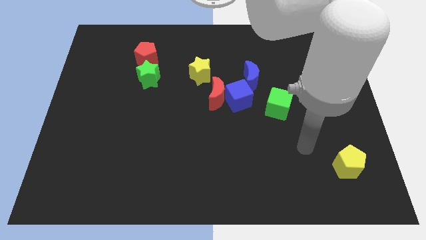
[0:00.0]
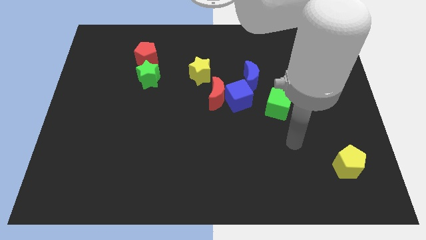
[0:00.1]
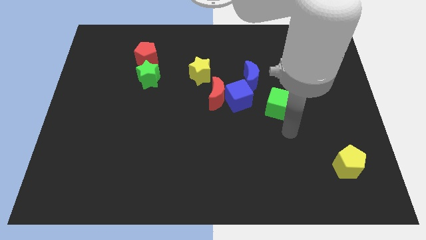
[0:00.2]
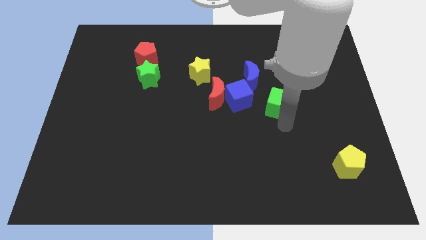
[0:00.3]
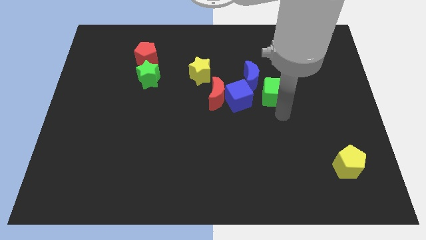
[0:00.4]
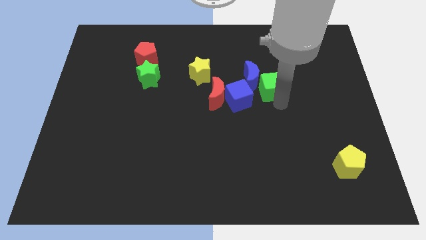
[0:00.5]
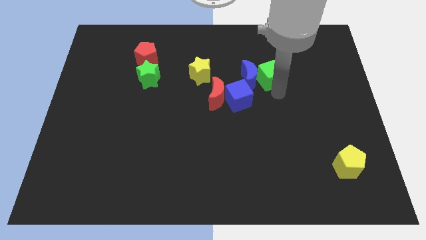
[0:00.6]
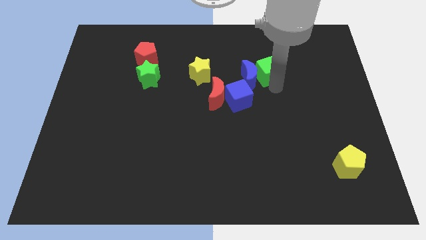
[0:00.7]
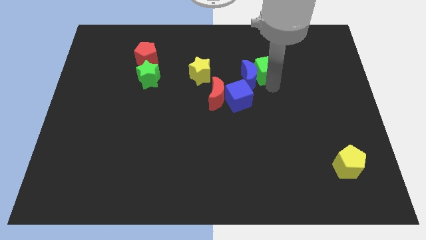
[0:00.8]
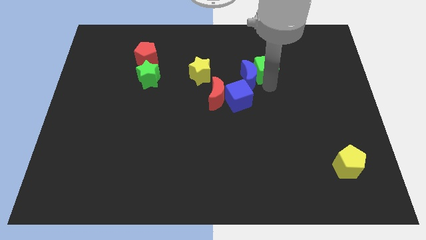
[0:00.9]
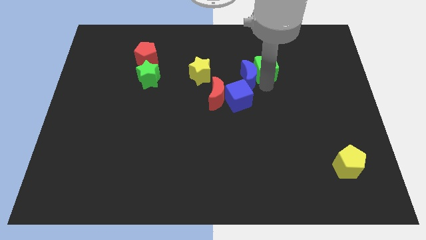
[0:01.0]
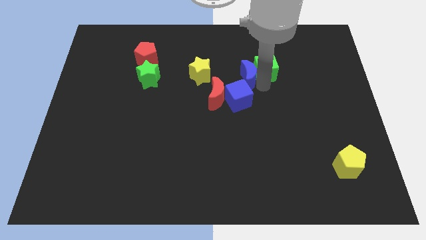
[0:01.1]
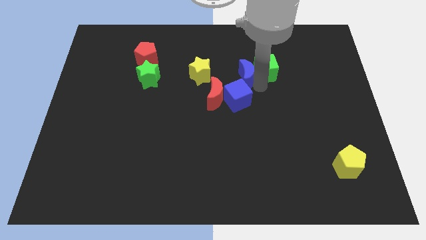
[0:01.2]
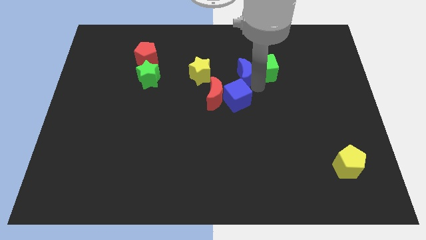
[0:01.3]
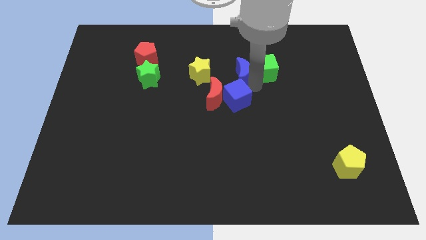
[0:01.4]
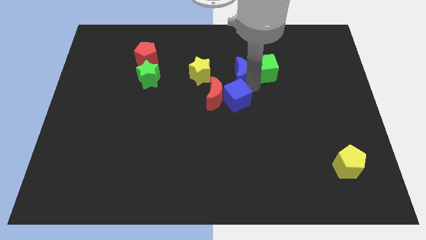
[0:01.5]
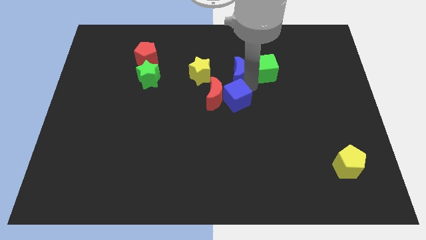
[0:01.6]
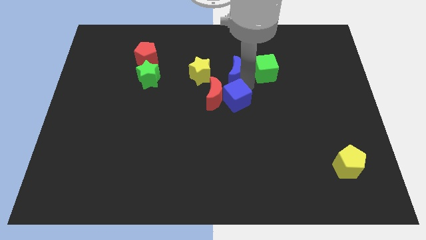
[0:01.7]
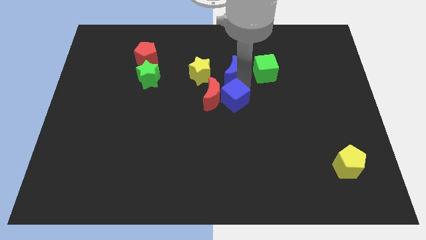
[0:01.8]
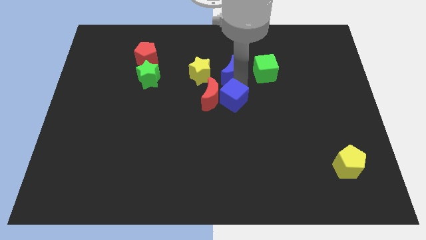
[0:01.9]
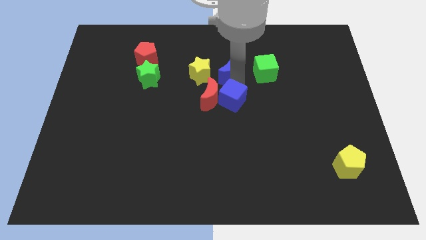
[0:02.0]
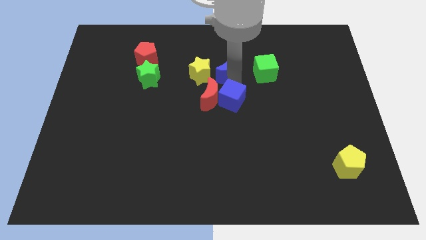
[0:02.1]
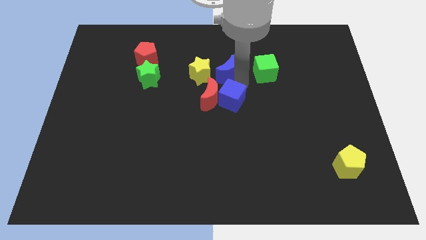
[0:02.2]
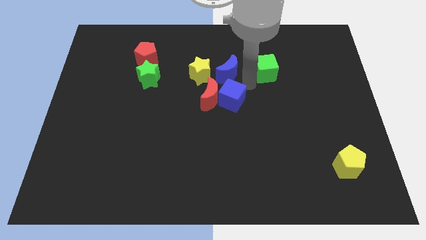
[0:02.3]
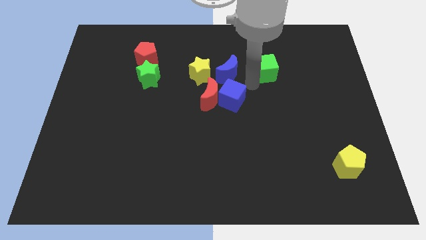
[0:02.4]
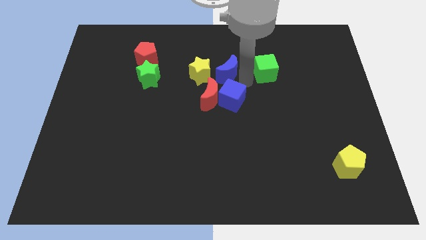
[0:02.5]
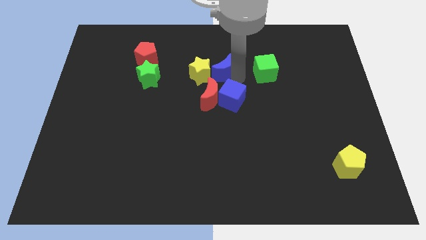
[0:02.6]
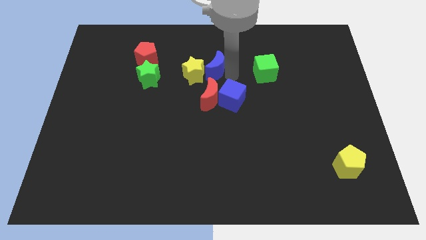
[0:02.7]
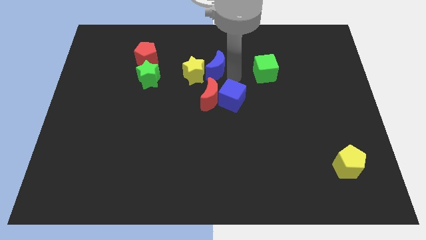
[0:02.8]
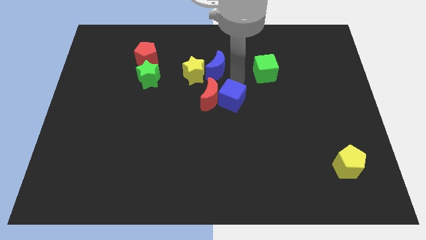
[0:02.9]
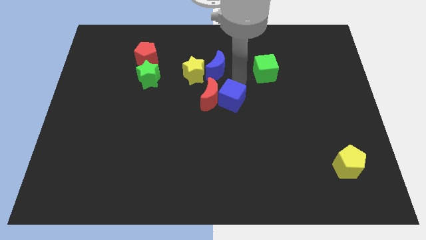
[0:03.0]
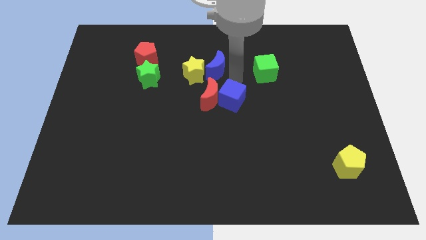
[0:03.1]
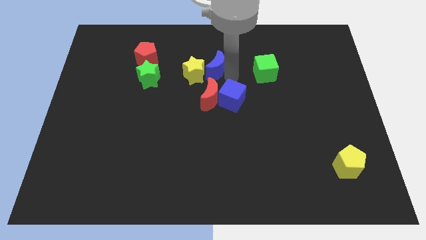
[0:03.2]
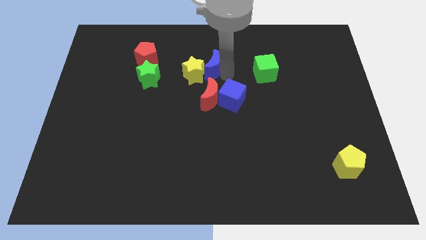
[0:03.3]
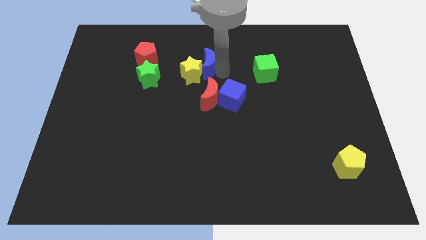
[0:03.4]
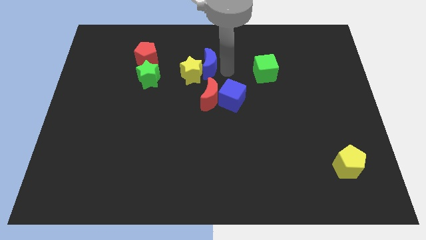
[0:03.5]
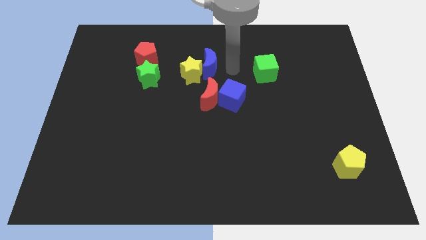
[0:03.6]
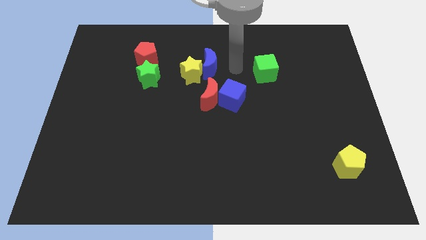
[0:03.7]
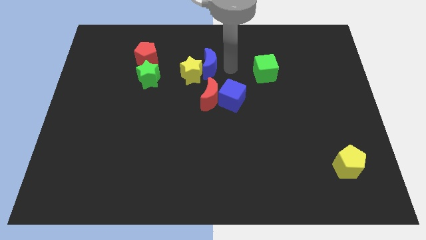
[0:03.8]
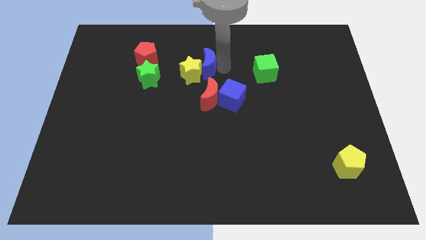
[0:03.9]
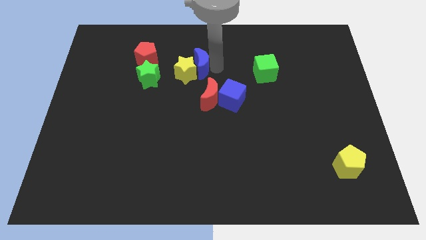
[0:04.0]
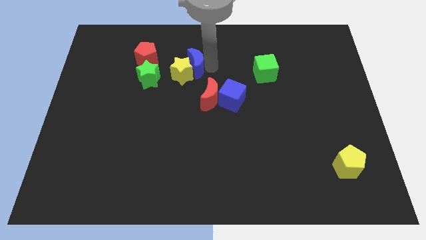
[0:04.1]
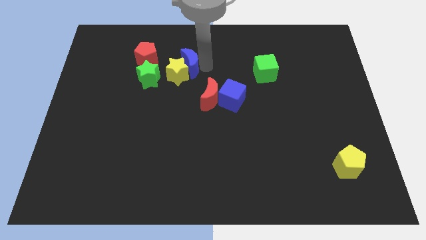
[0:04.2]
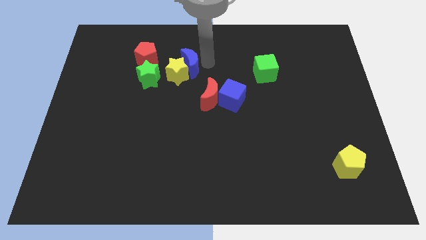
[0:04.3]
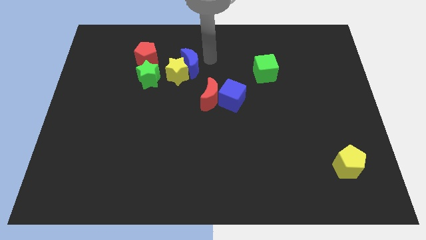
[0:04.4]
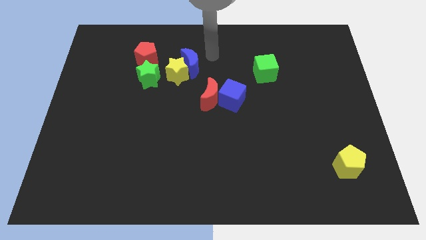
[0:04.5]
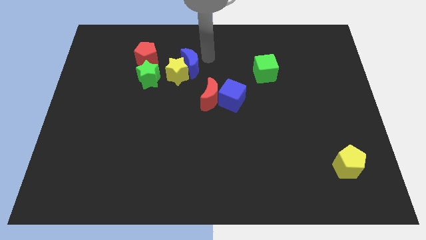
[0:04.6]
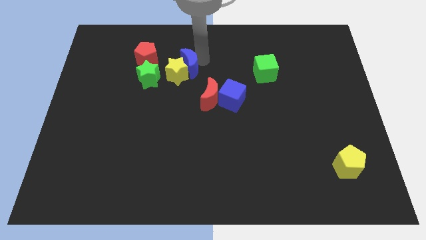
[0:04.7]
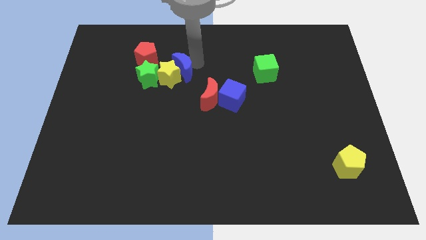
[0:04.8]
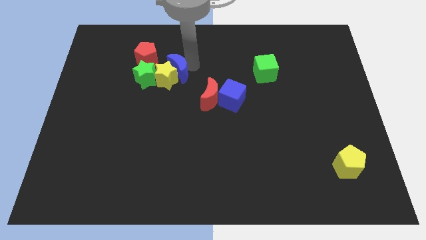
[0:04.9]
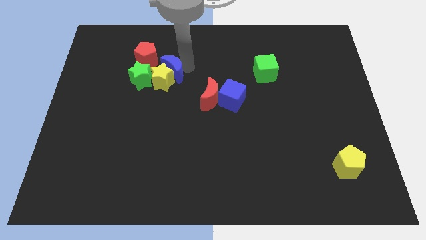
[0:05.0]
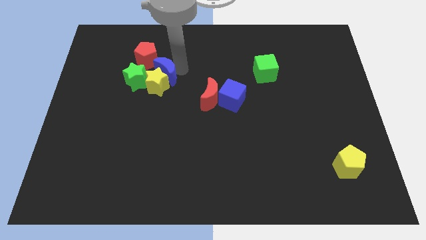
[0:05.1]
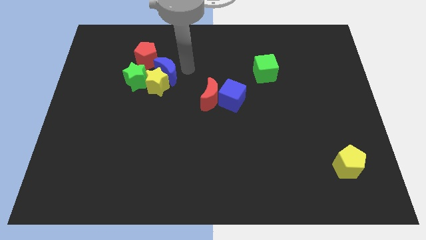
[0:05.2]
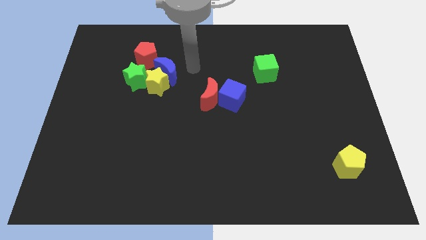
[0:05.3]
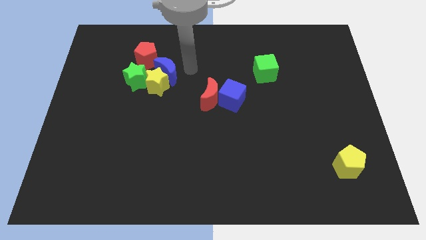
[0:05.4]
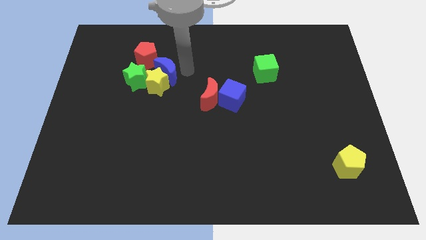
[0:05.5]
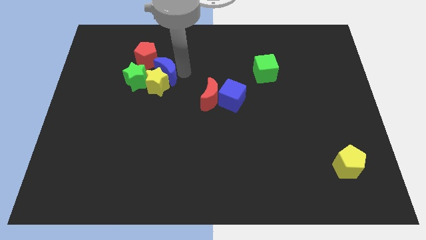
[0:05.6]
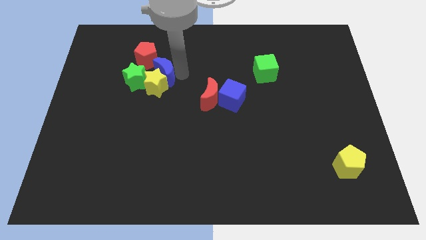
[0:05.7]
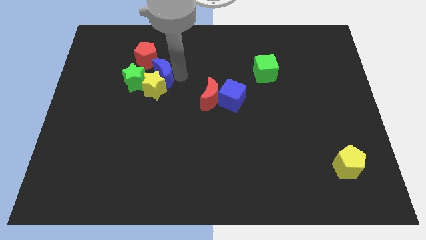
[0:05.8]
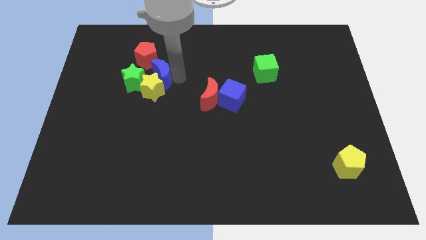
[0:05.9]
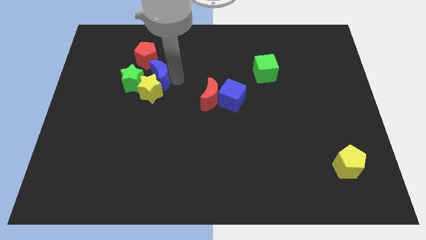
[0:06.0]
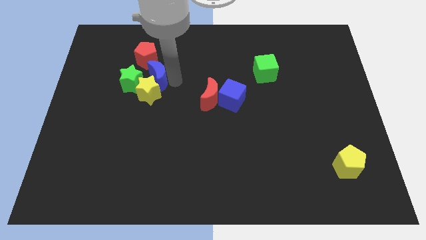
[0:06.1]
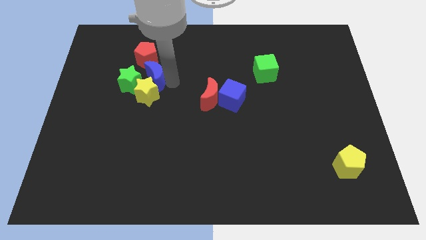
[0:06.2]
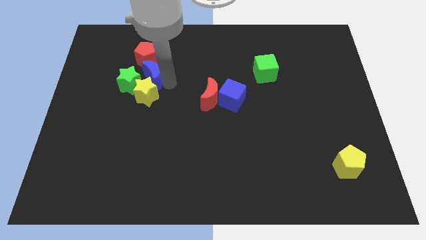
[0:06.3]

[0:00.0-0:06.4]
slide the blue moon towards the green star

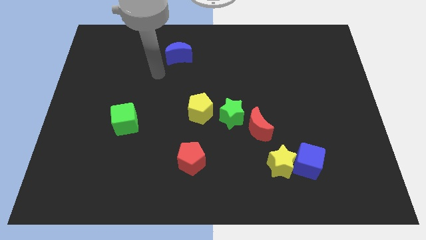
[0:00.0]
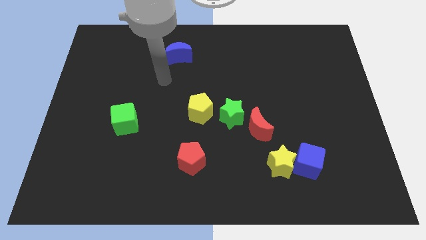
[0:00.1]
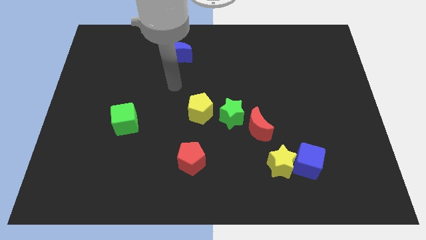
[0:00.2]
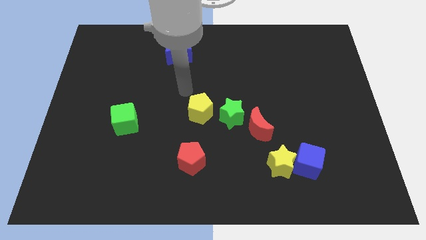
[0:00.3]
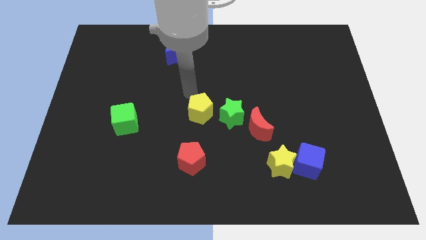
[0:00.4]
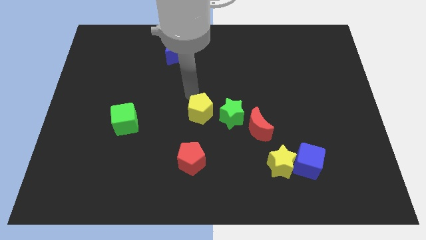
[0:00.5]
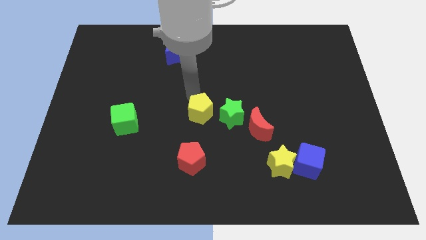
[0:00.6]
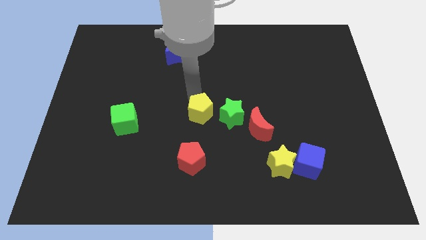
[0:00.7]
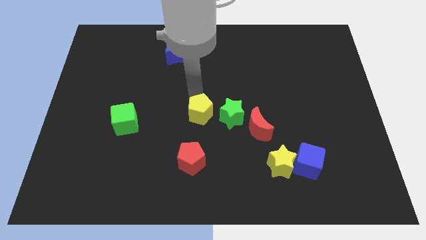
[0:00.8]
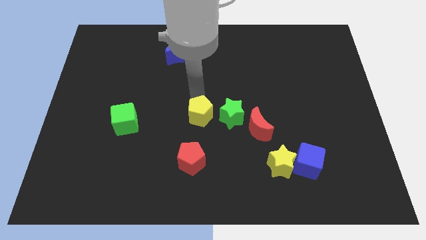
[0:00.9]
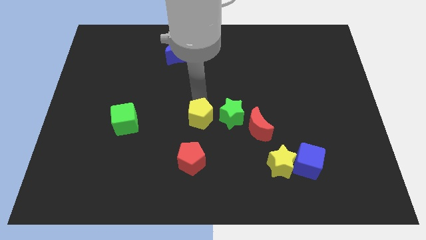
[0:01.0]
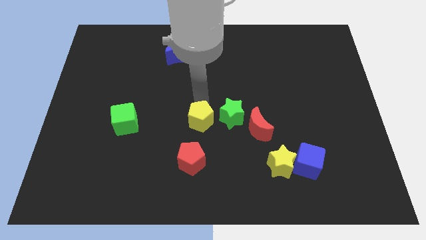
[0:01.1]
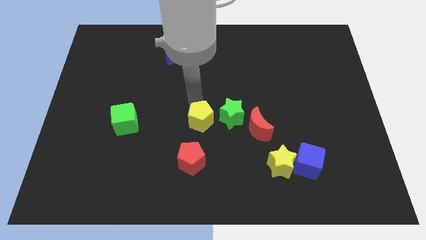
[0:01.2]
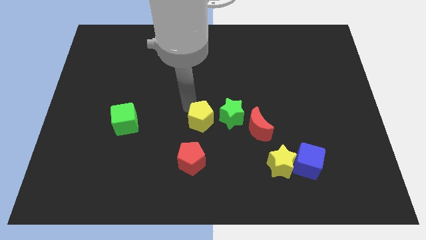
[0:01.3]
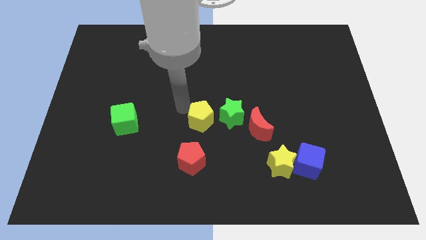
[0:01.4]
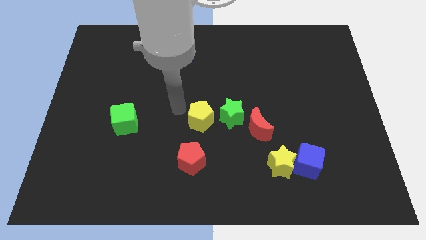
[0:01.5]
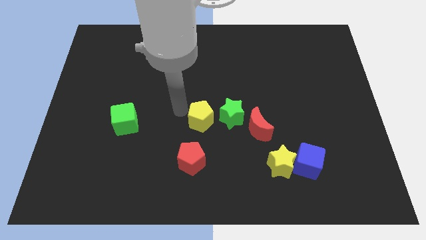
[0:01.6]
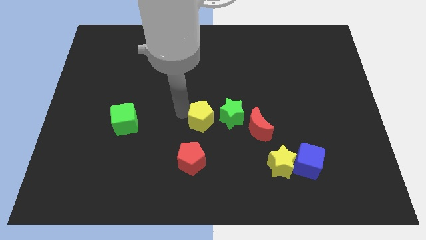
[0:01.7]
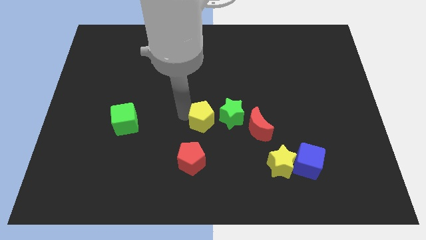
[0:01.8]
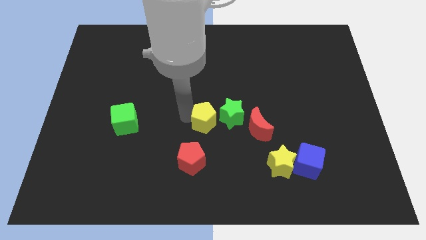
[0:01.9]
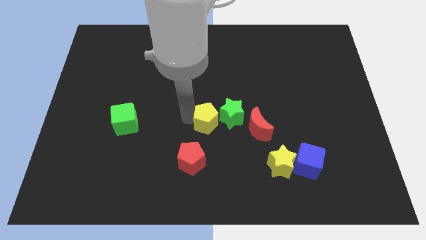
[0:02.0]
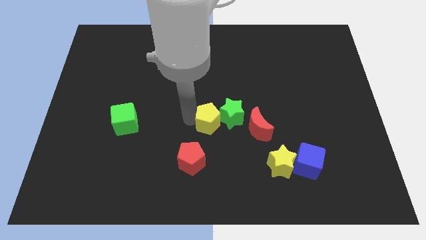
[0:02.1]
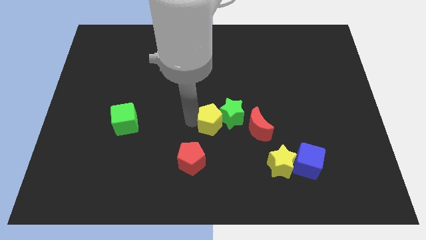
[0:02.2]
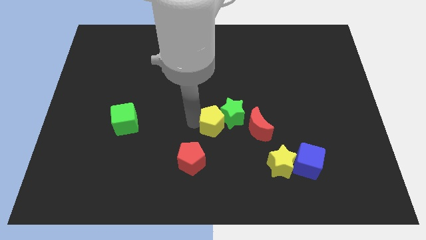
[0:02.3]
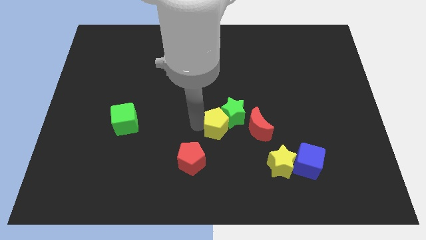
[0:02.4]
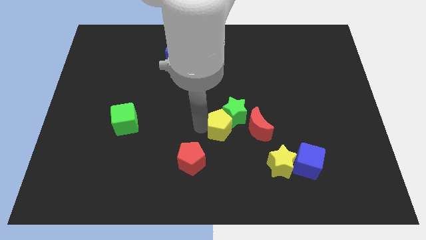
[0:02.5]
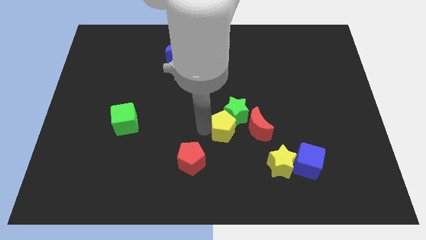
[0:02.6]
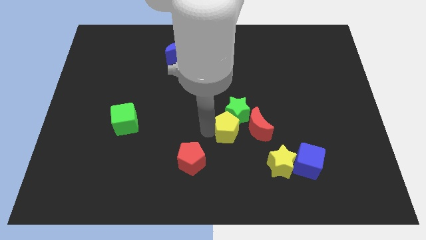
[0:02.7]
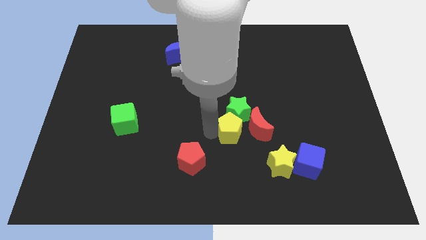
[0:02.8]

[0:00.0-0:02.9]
slide the yellow pentagon close to the red moon
